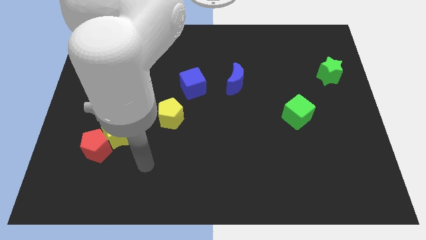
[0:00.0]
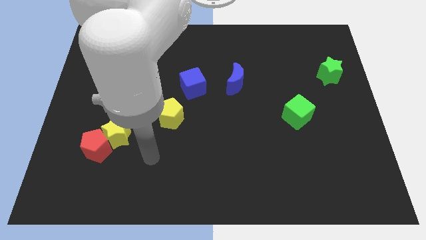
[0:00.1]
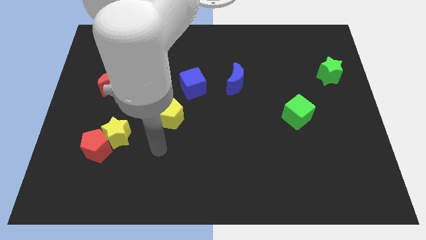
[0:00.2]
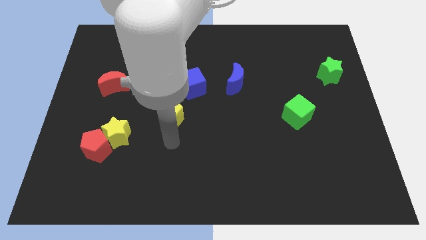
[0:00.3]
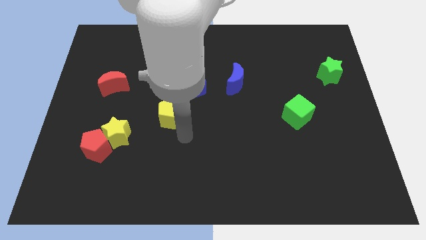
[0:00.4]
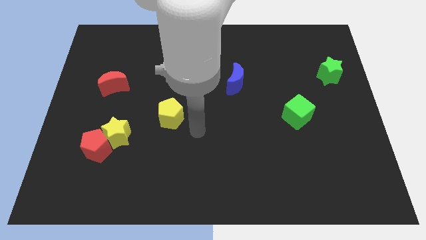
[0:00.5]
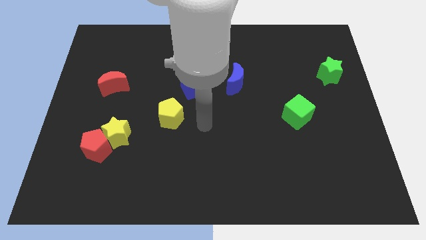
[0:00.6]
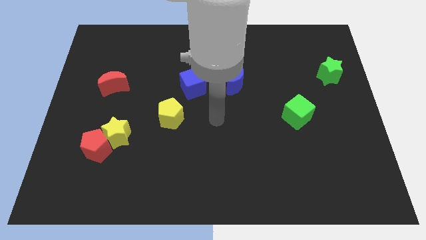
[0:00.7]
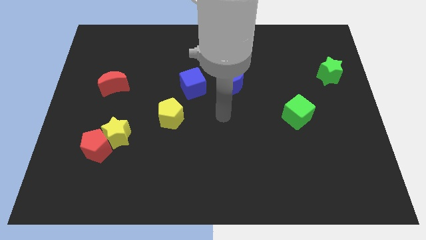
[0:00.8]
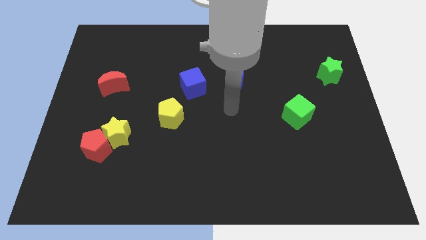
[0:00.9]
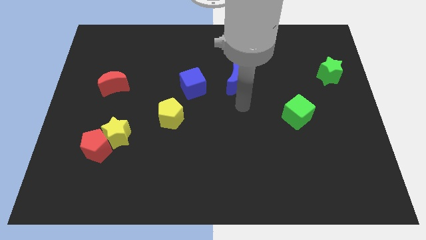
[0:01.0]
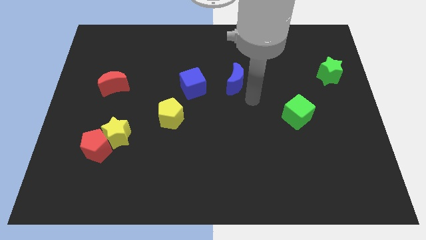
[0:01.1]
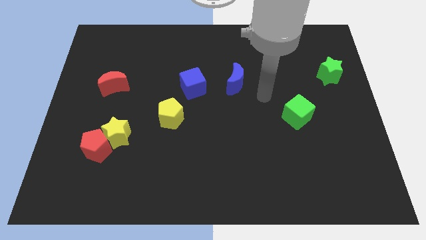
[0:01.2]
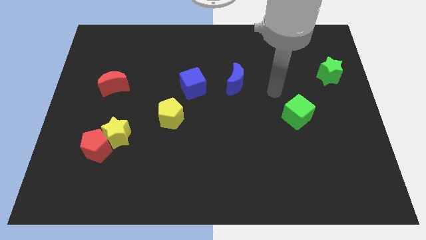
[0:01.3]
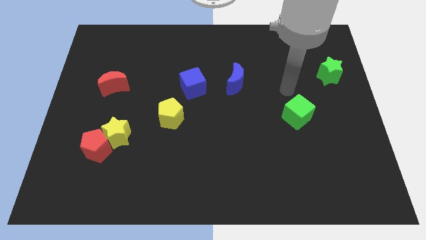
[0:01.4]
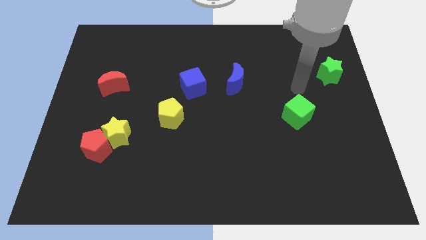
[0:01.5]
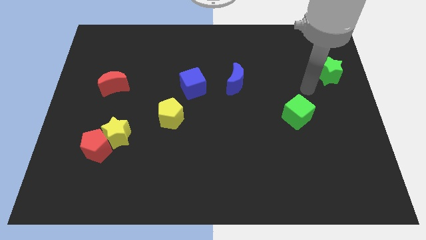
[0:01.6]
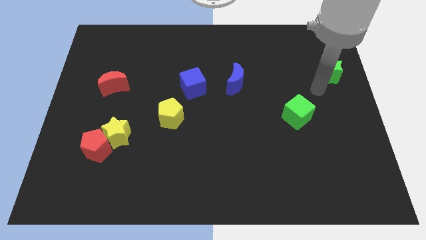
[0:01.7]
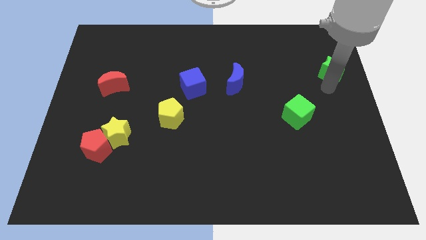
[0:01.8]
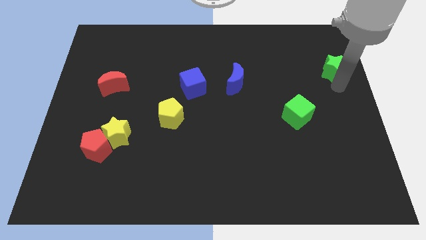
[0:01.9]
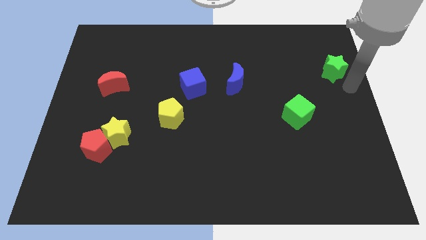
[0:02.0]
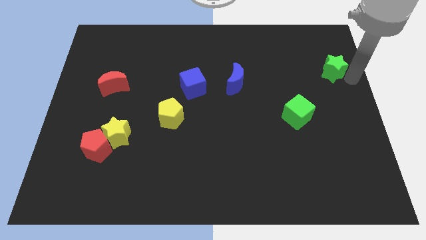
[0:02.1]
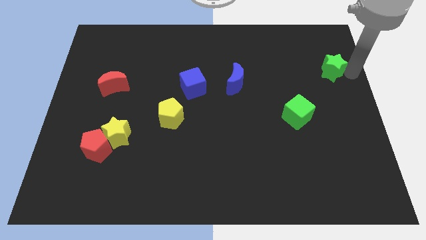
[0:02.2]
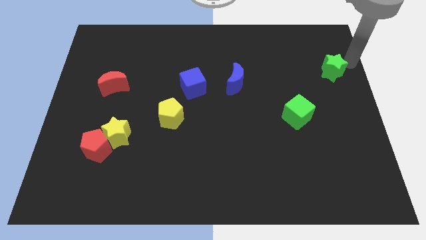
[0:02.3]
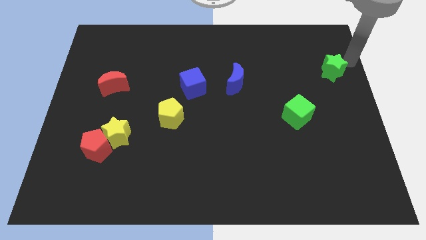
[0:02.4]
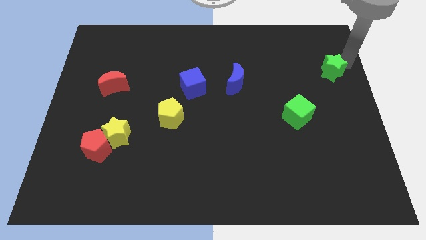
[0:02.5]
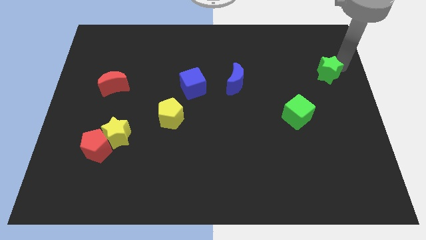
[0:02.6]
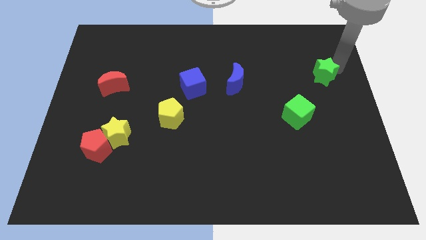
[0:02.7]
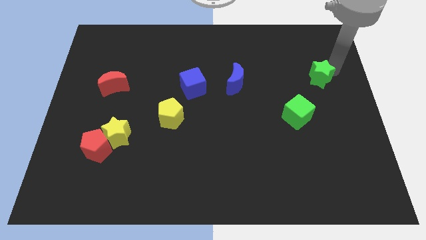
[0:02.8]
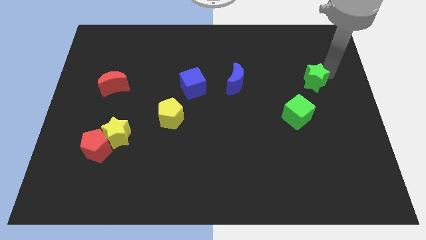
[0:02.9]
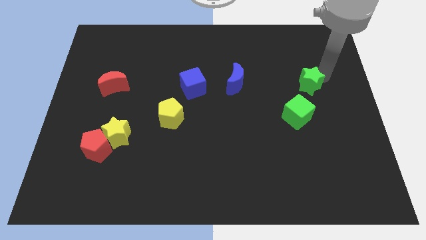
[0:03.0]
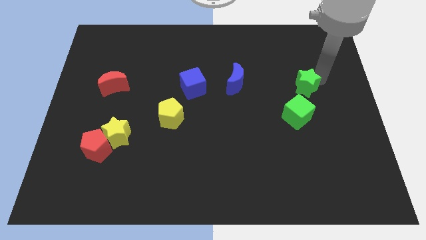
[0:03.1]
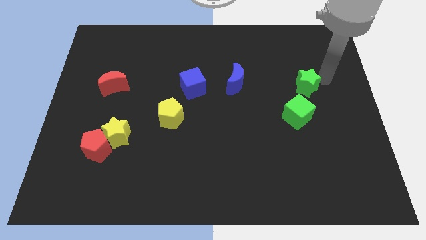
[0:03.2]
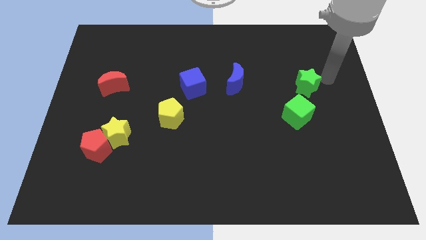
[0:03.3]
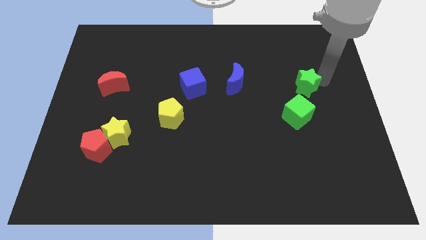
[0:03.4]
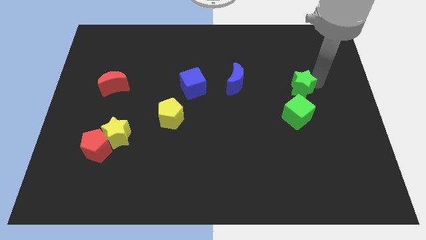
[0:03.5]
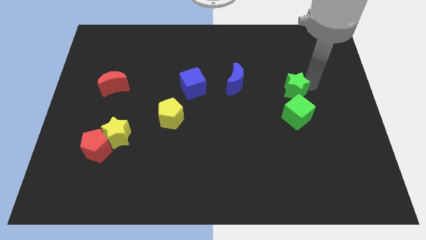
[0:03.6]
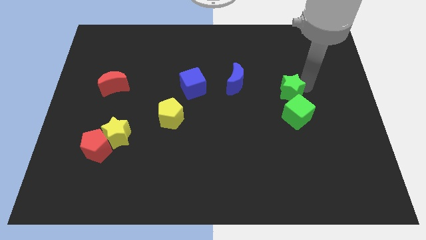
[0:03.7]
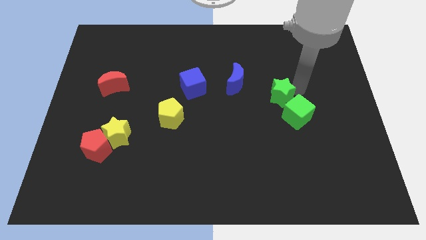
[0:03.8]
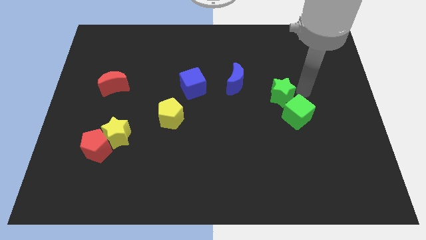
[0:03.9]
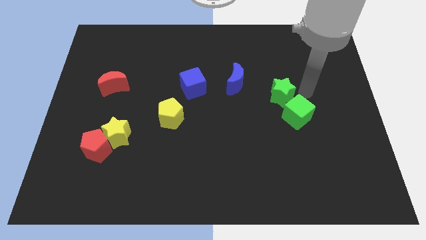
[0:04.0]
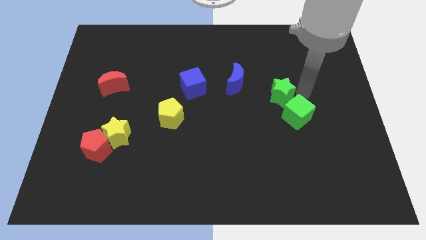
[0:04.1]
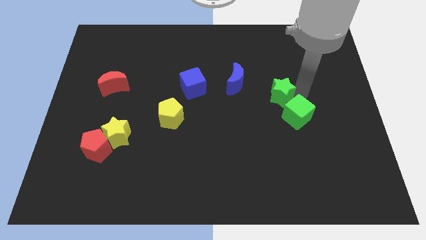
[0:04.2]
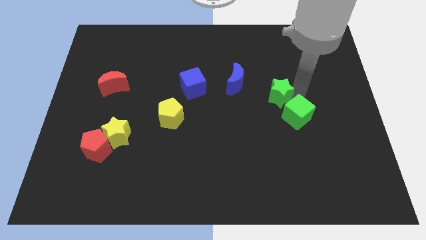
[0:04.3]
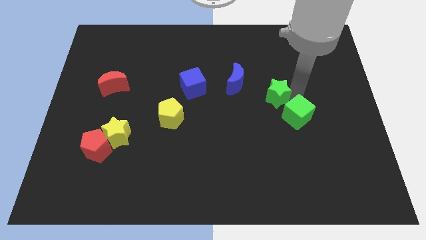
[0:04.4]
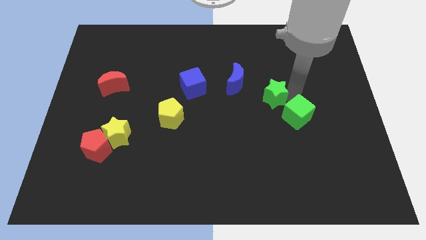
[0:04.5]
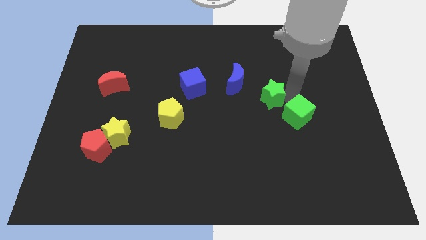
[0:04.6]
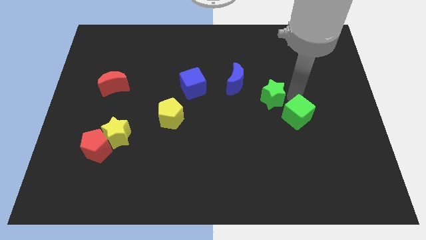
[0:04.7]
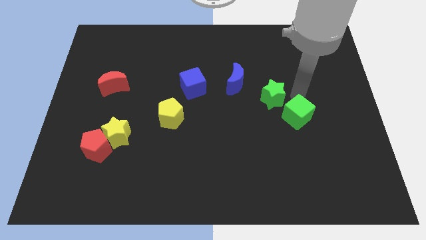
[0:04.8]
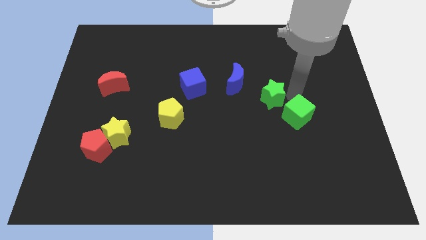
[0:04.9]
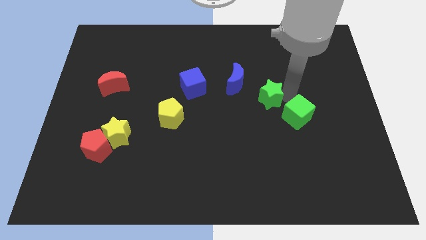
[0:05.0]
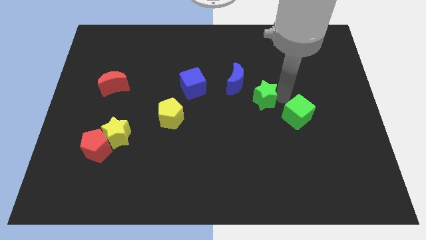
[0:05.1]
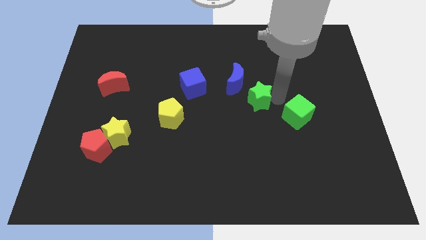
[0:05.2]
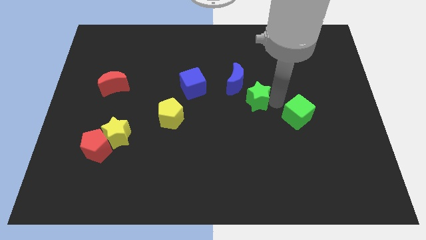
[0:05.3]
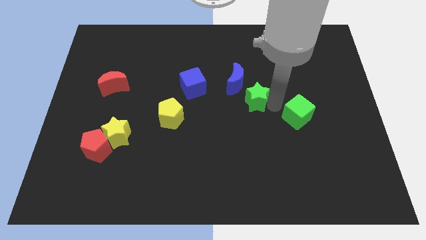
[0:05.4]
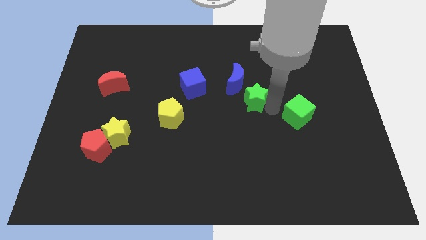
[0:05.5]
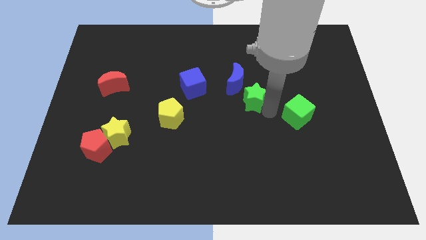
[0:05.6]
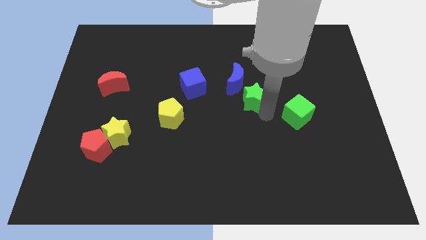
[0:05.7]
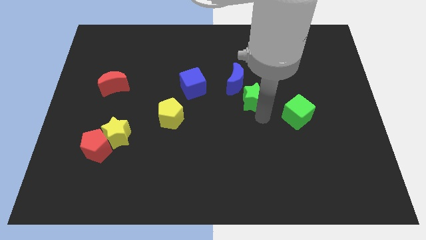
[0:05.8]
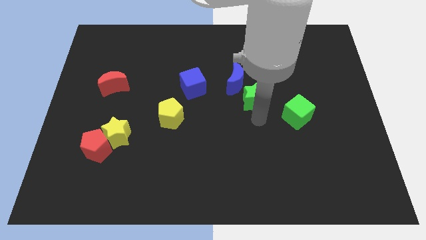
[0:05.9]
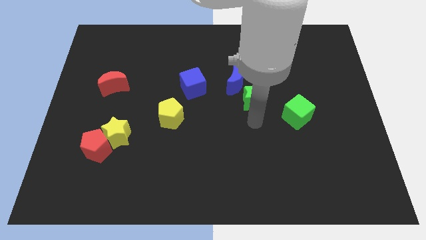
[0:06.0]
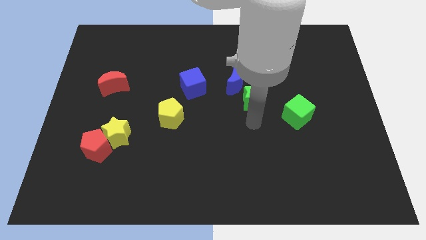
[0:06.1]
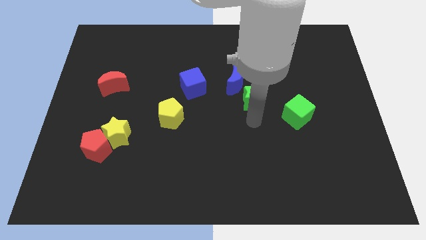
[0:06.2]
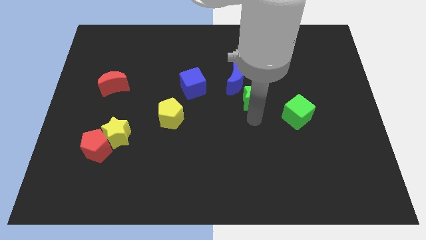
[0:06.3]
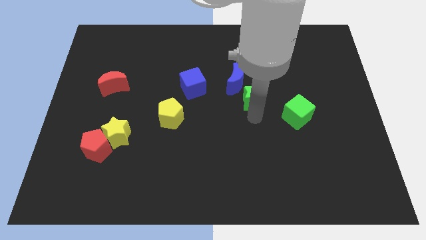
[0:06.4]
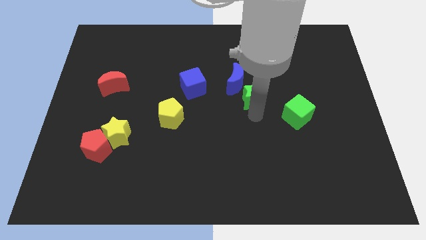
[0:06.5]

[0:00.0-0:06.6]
put the green star just right of the blue cube

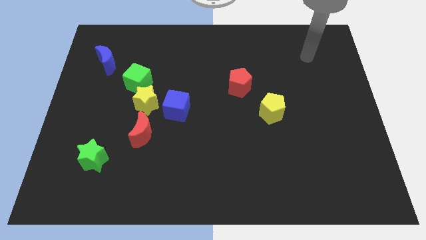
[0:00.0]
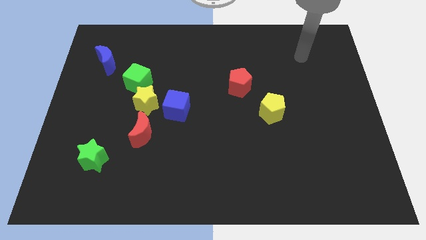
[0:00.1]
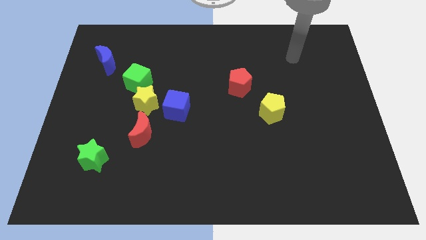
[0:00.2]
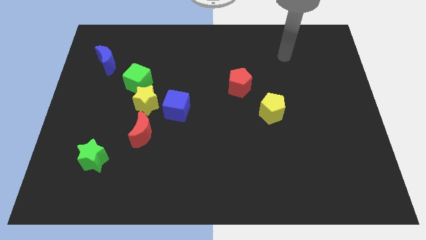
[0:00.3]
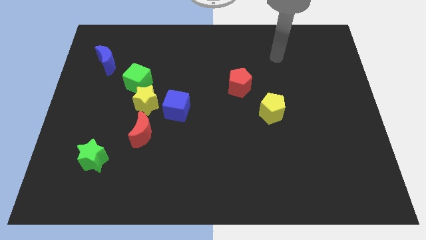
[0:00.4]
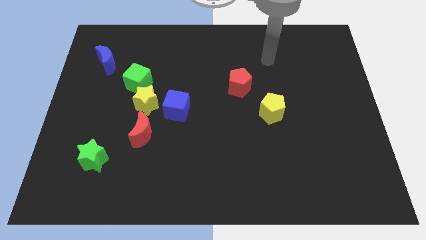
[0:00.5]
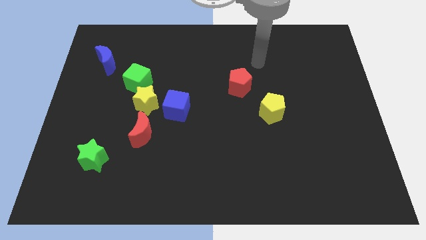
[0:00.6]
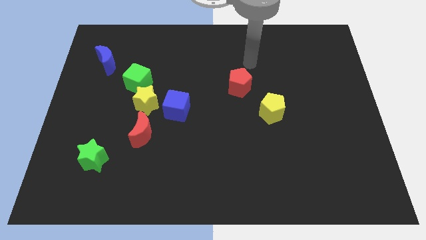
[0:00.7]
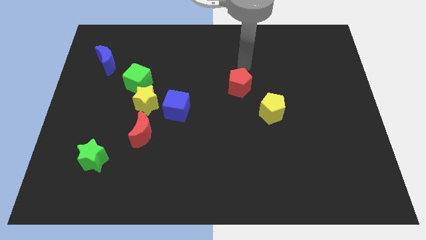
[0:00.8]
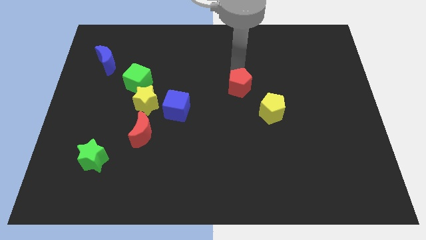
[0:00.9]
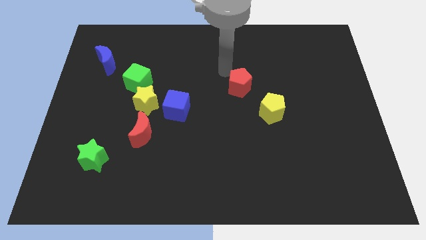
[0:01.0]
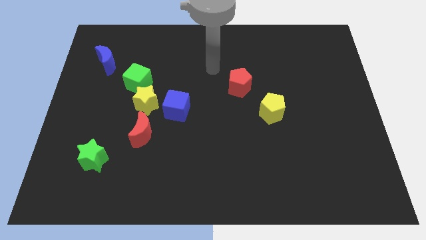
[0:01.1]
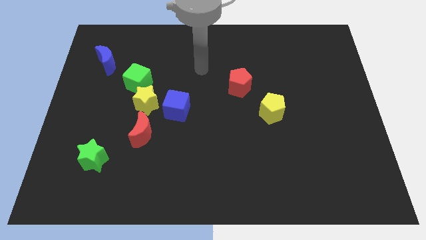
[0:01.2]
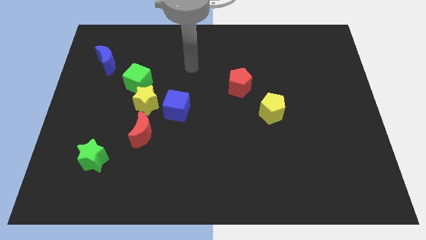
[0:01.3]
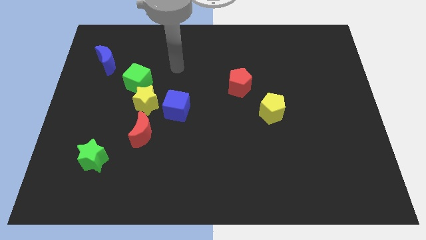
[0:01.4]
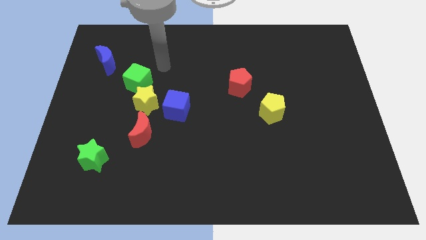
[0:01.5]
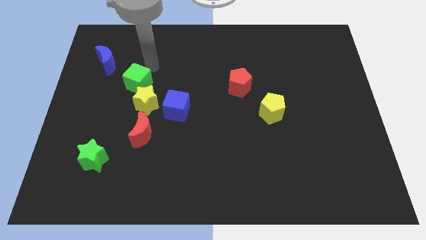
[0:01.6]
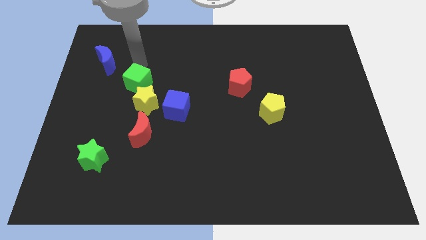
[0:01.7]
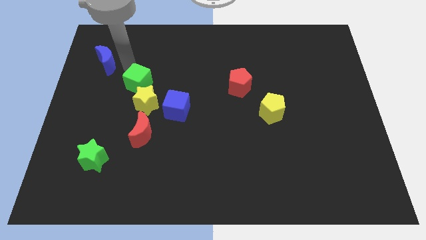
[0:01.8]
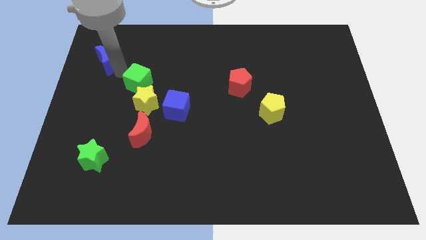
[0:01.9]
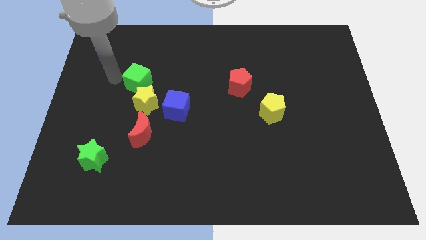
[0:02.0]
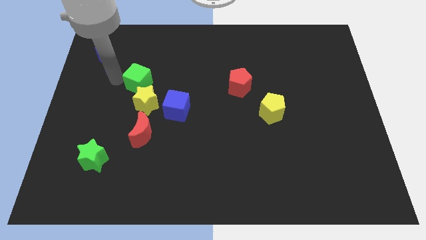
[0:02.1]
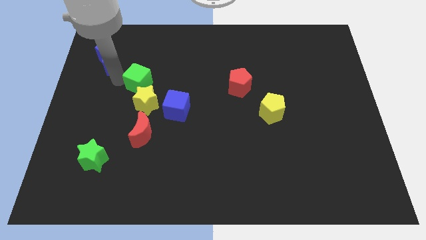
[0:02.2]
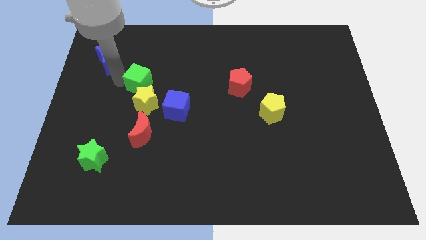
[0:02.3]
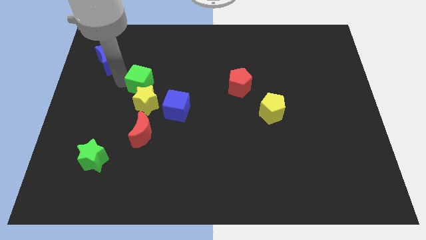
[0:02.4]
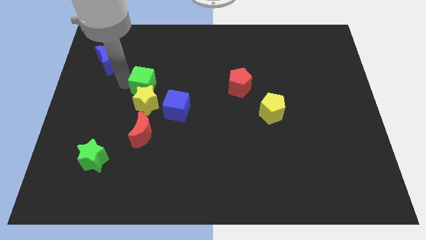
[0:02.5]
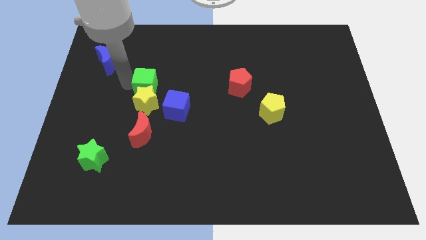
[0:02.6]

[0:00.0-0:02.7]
push the green cube to the top right of the yellow star
